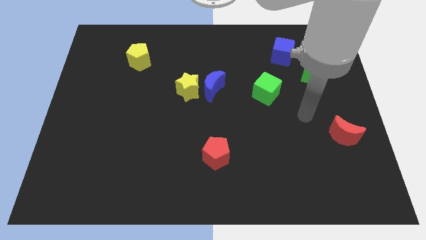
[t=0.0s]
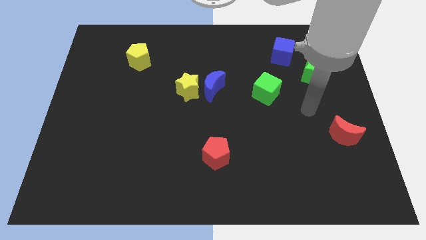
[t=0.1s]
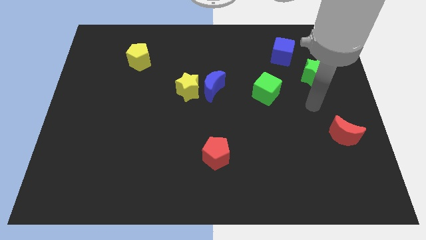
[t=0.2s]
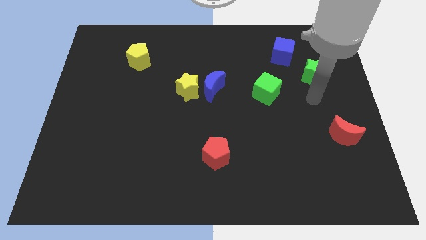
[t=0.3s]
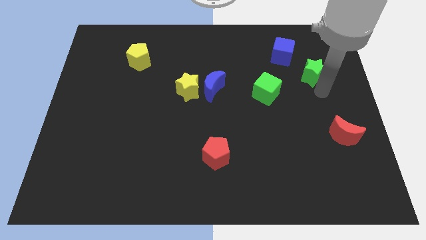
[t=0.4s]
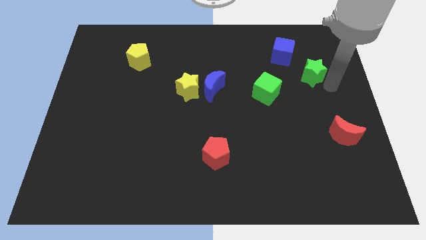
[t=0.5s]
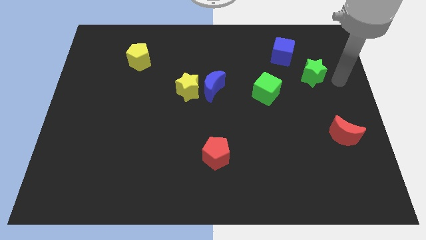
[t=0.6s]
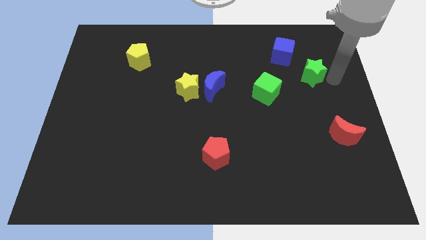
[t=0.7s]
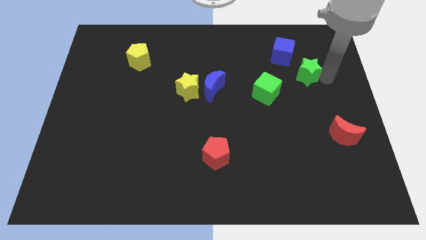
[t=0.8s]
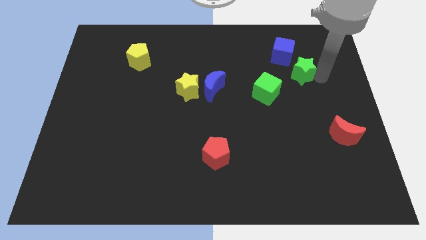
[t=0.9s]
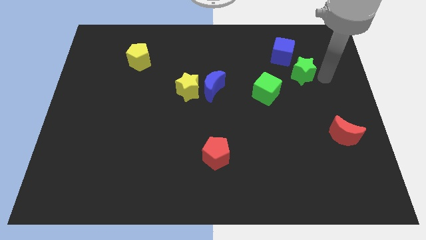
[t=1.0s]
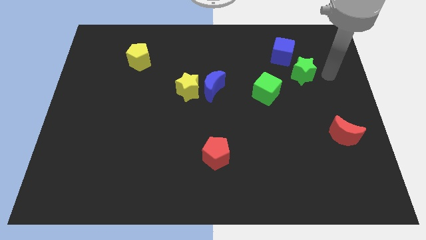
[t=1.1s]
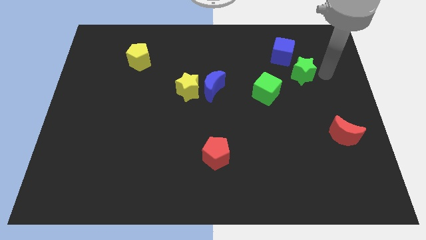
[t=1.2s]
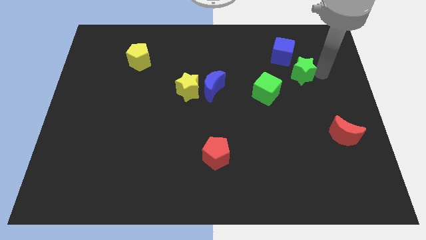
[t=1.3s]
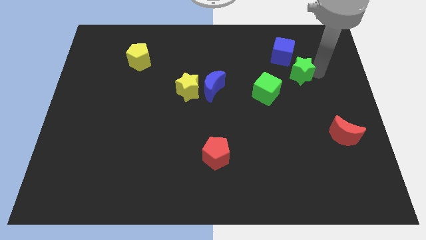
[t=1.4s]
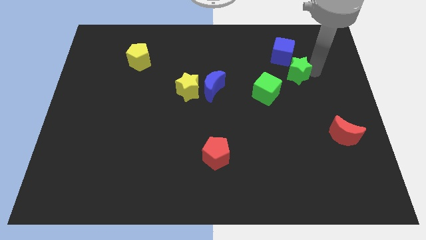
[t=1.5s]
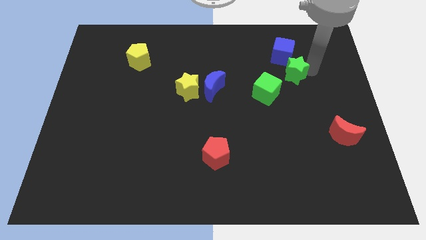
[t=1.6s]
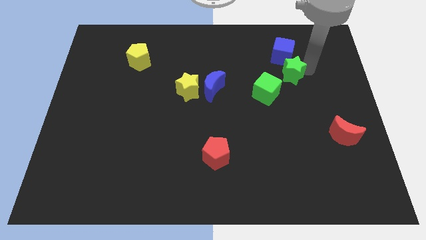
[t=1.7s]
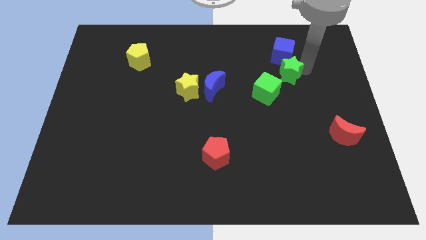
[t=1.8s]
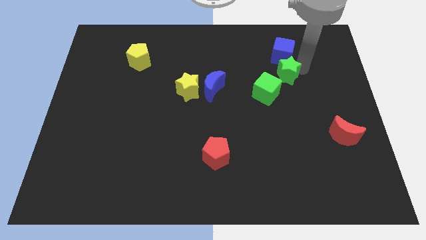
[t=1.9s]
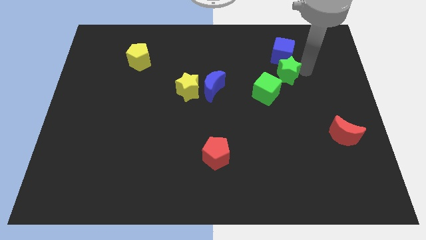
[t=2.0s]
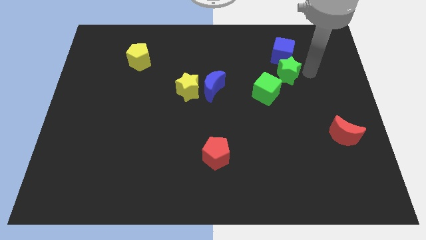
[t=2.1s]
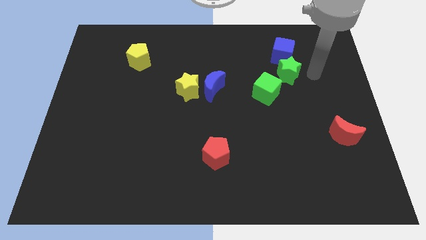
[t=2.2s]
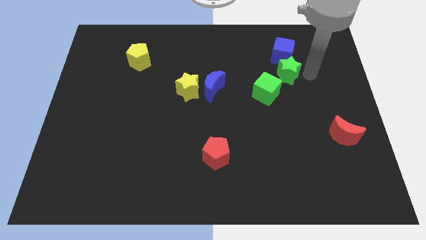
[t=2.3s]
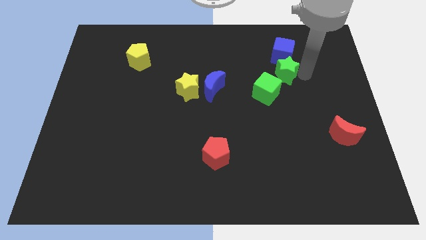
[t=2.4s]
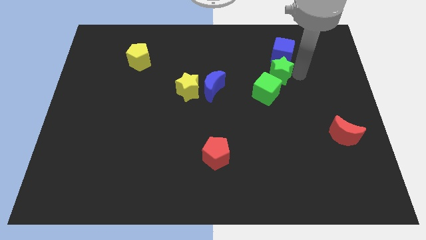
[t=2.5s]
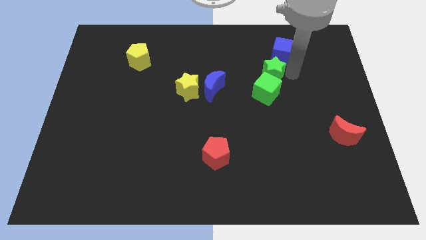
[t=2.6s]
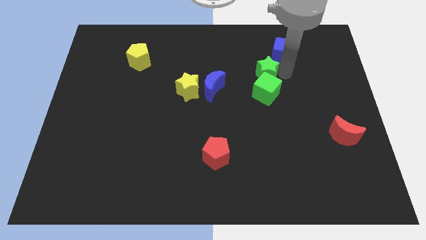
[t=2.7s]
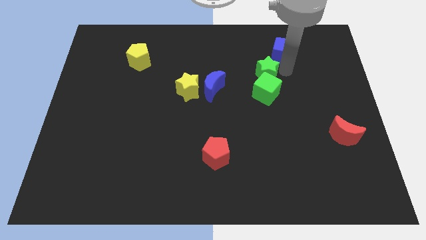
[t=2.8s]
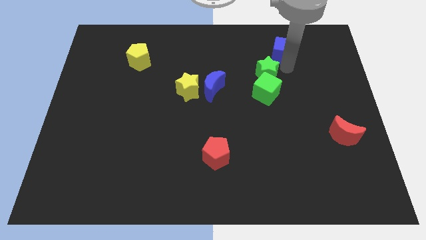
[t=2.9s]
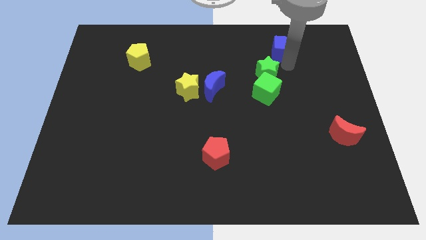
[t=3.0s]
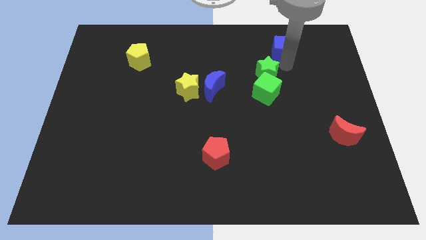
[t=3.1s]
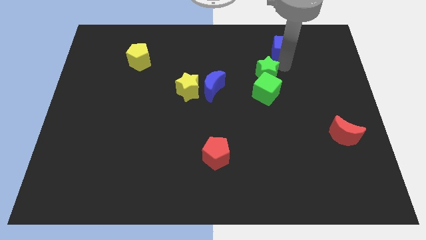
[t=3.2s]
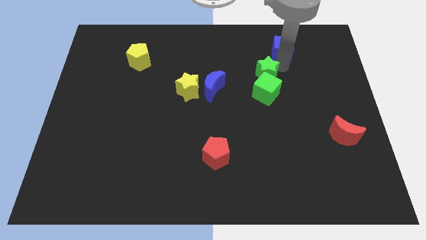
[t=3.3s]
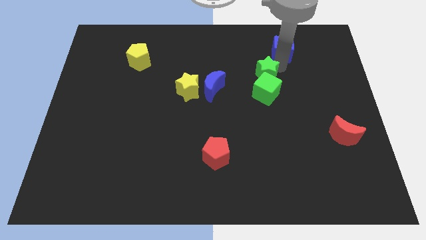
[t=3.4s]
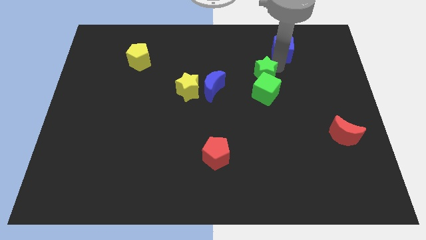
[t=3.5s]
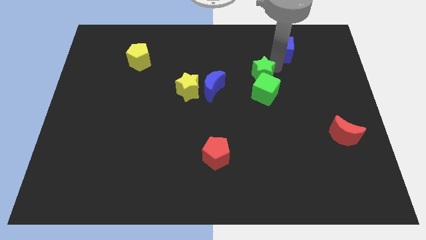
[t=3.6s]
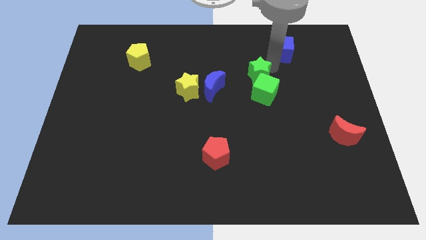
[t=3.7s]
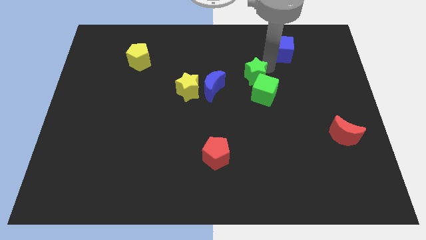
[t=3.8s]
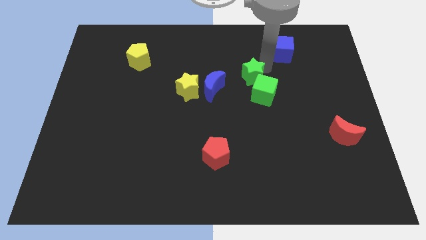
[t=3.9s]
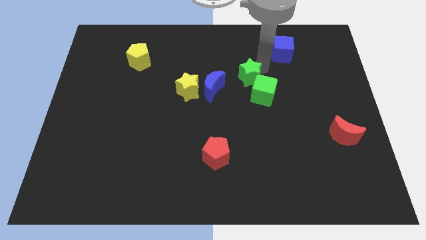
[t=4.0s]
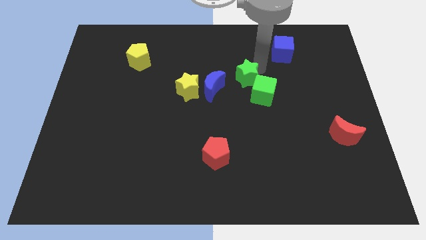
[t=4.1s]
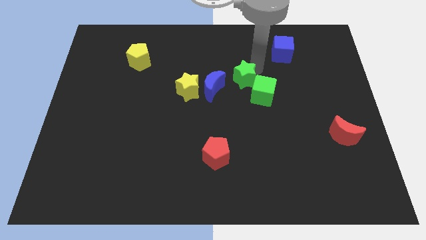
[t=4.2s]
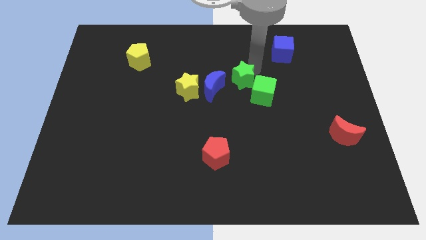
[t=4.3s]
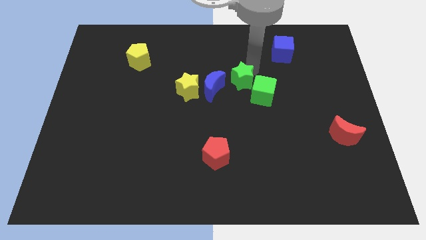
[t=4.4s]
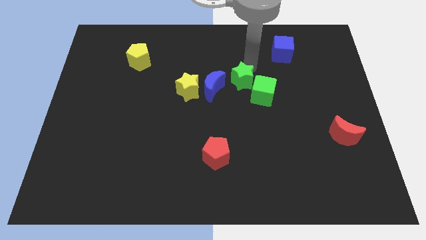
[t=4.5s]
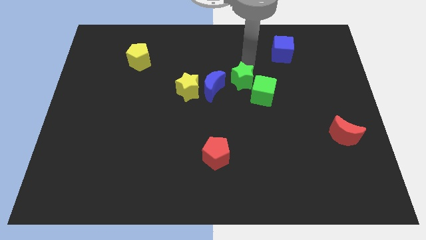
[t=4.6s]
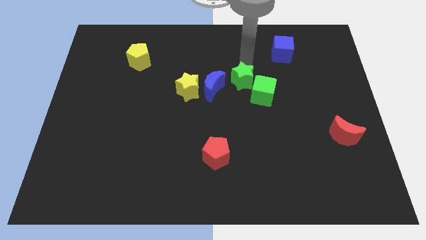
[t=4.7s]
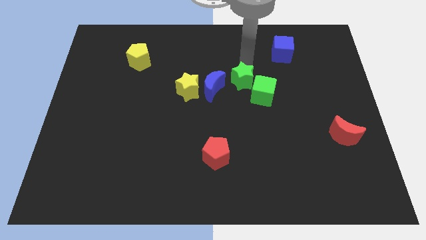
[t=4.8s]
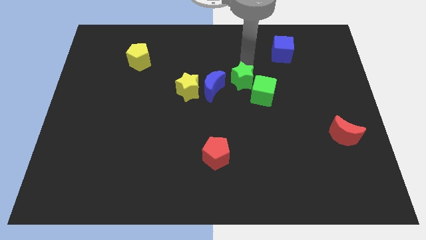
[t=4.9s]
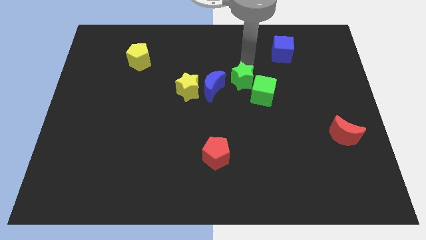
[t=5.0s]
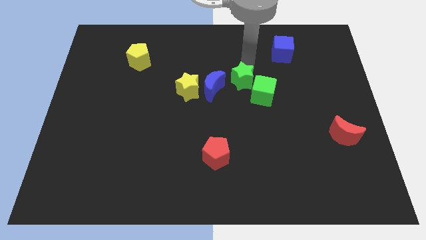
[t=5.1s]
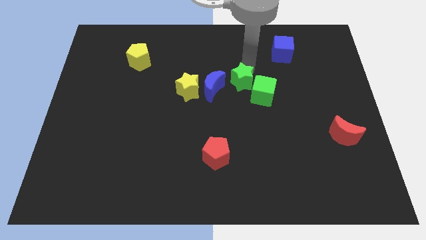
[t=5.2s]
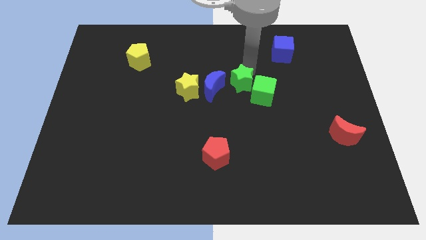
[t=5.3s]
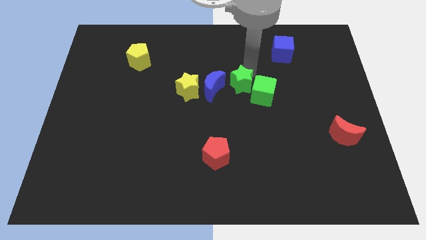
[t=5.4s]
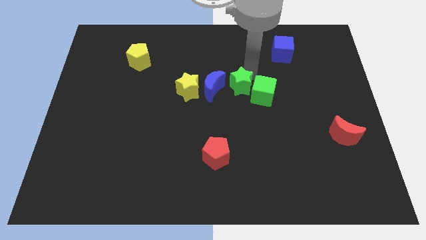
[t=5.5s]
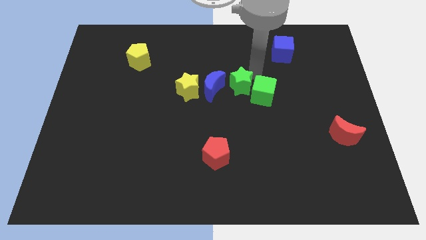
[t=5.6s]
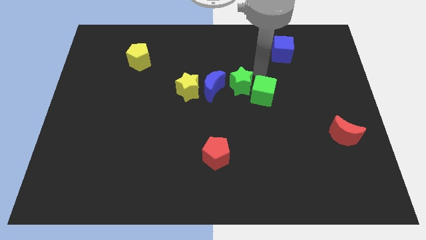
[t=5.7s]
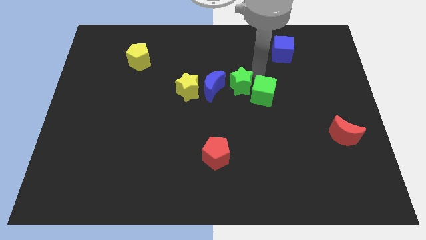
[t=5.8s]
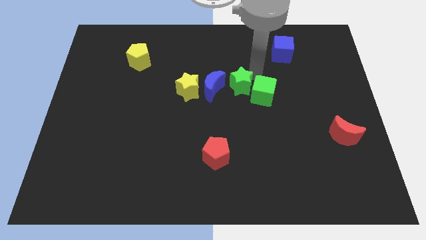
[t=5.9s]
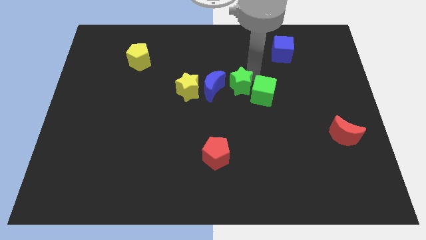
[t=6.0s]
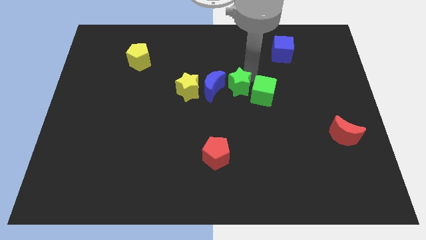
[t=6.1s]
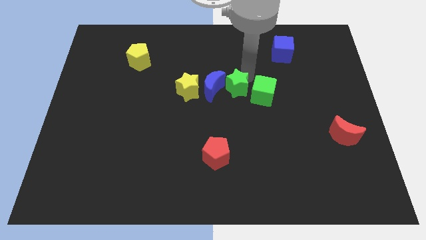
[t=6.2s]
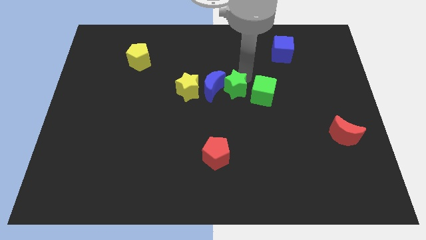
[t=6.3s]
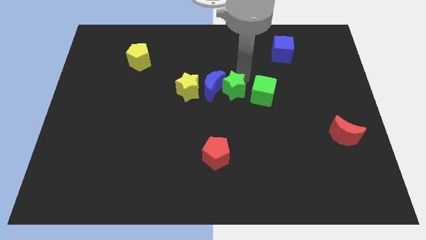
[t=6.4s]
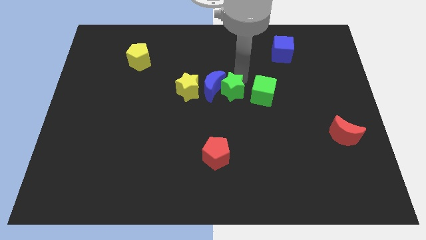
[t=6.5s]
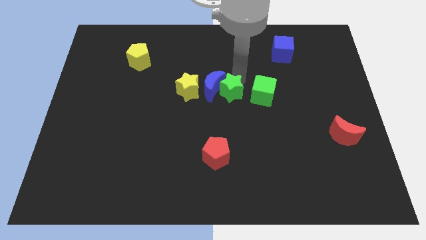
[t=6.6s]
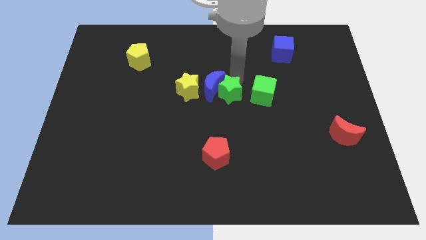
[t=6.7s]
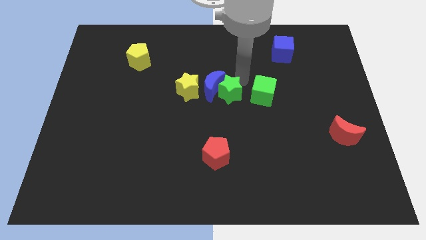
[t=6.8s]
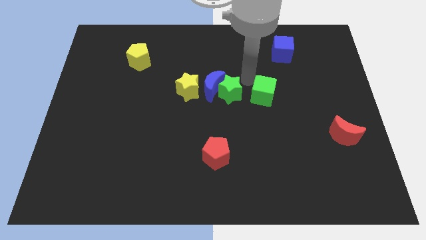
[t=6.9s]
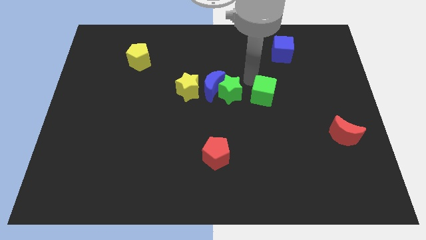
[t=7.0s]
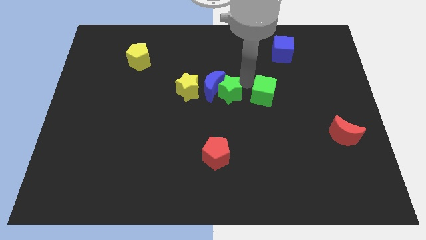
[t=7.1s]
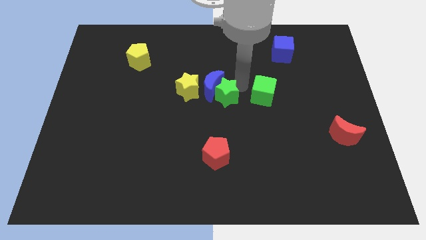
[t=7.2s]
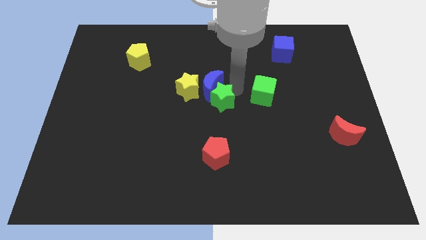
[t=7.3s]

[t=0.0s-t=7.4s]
slide the green star to the bottom right of the yellow star

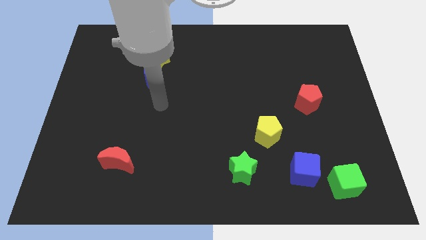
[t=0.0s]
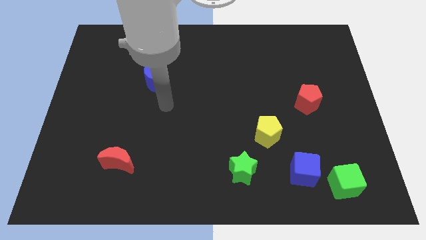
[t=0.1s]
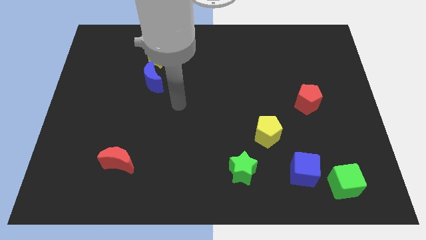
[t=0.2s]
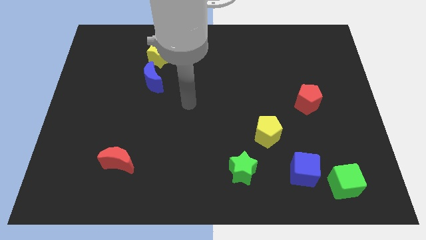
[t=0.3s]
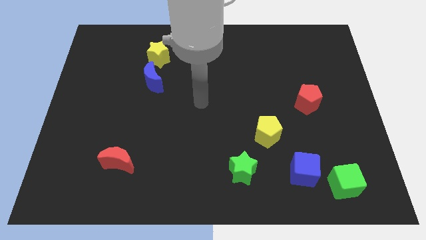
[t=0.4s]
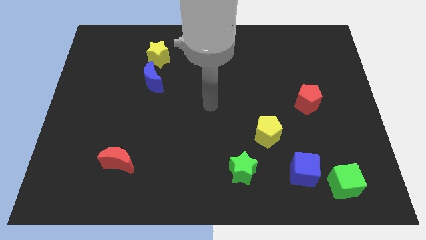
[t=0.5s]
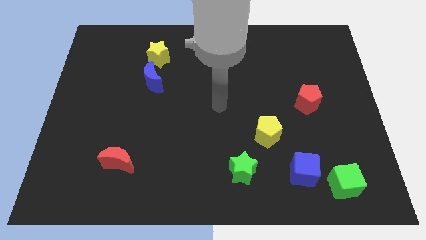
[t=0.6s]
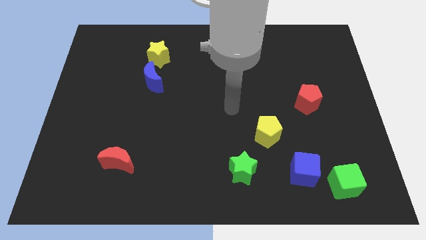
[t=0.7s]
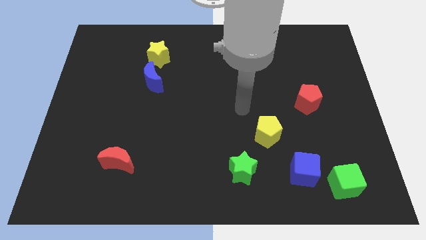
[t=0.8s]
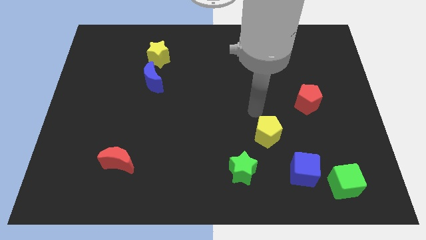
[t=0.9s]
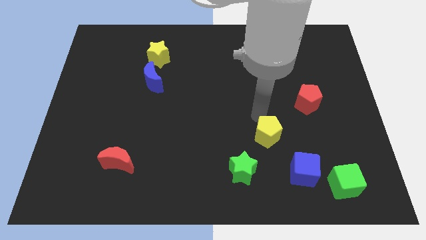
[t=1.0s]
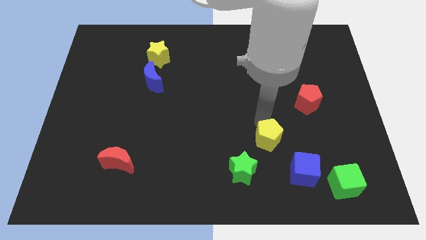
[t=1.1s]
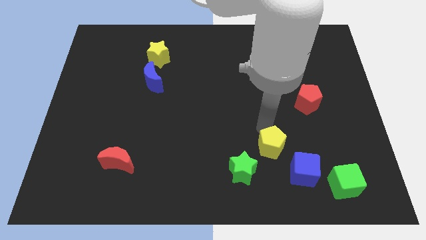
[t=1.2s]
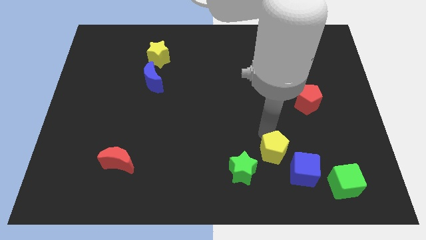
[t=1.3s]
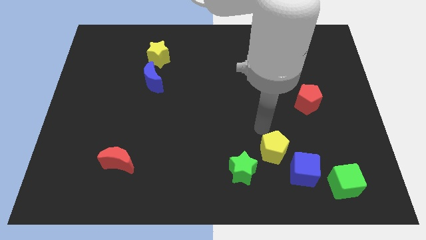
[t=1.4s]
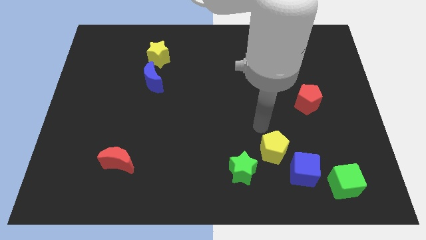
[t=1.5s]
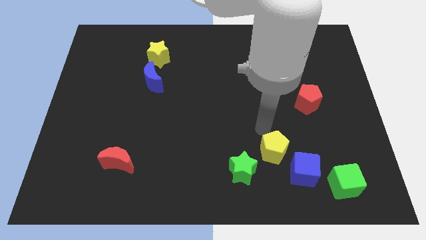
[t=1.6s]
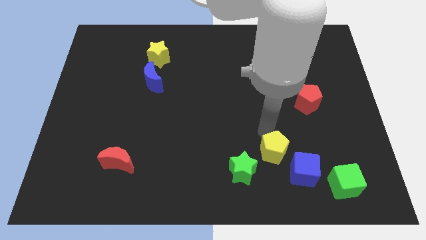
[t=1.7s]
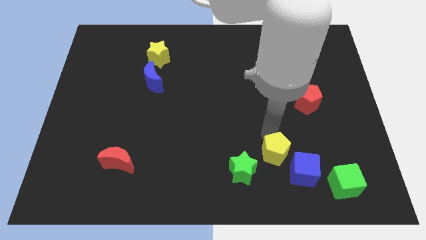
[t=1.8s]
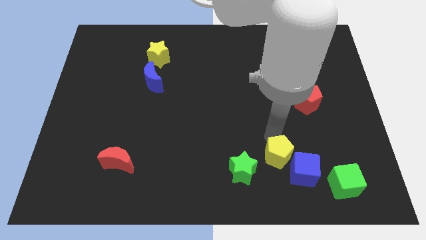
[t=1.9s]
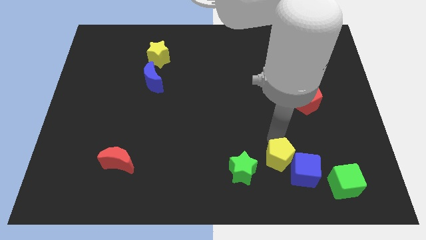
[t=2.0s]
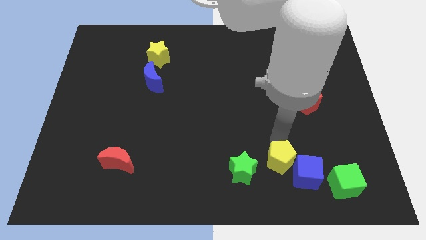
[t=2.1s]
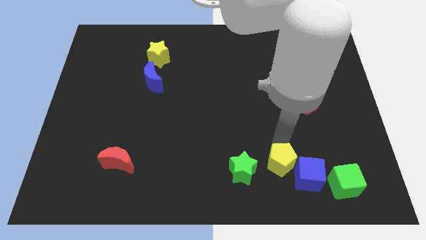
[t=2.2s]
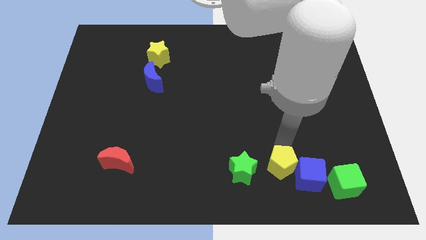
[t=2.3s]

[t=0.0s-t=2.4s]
put the yellow pentagon to the left of the green cube
